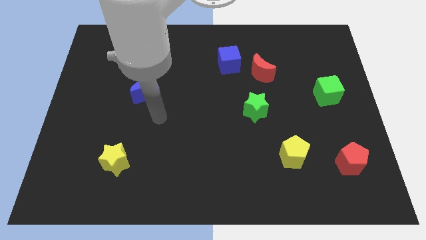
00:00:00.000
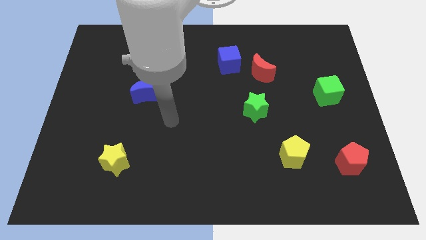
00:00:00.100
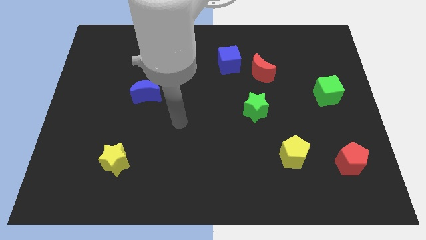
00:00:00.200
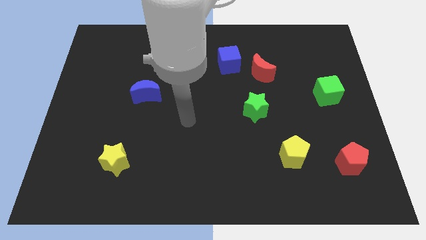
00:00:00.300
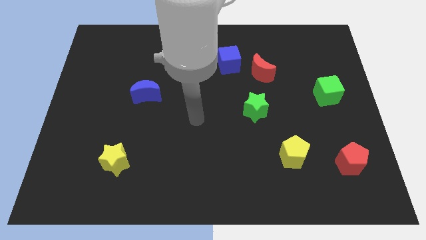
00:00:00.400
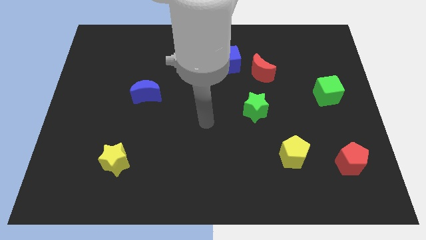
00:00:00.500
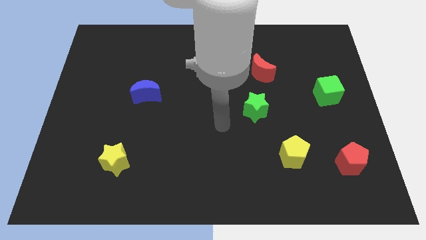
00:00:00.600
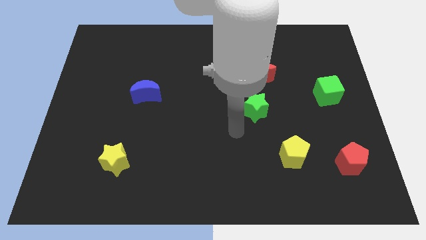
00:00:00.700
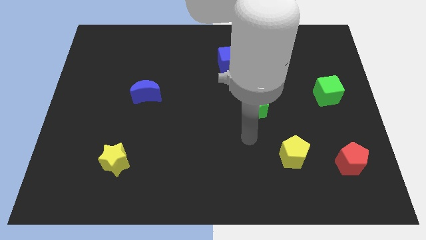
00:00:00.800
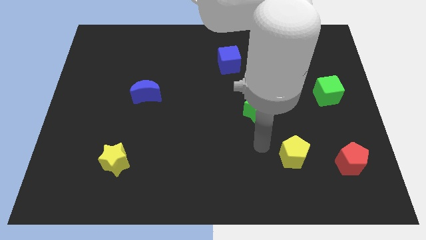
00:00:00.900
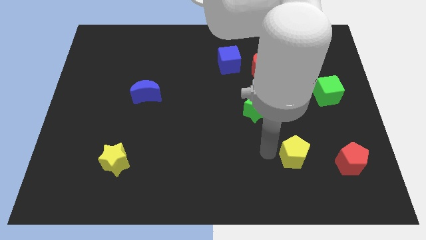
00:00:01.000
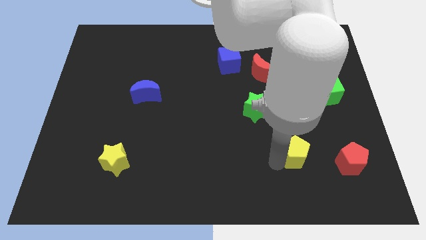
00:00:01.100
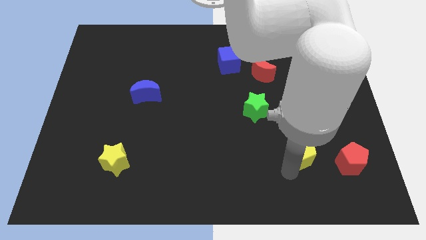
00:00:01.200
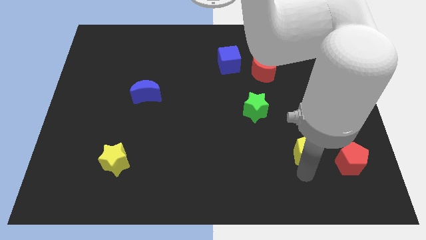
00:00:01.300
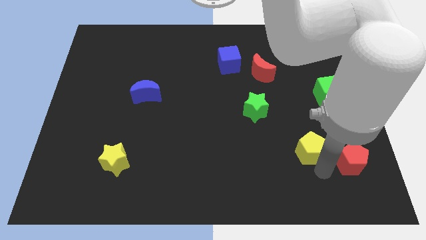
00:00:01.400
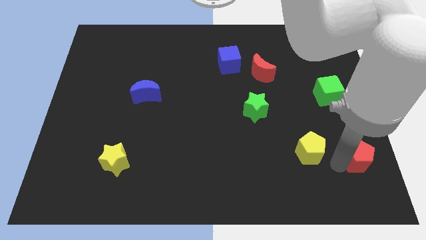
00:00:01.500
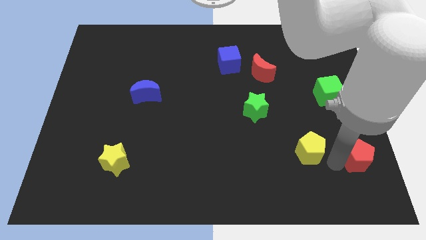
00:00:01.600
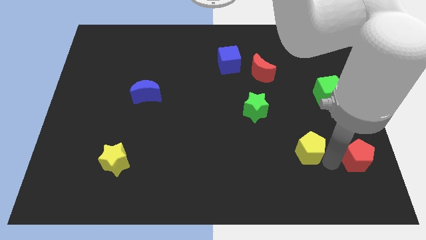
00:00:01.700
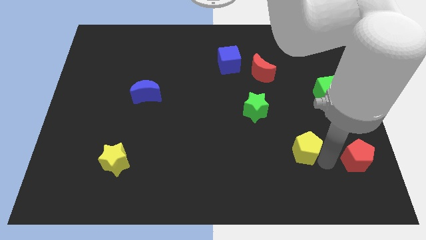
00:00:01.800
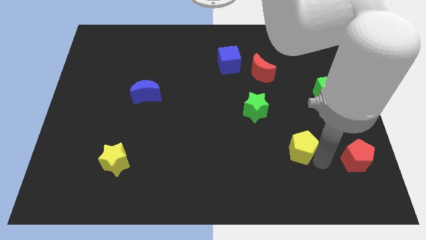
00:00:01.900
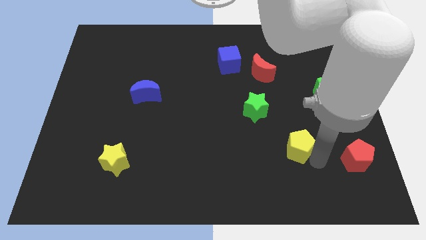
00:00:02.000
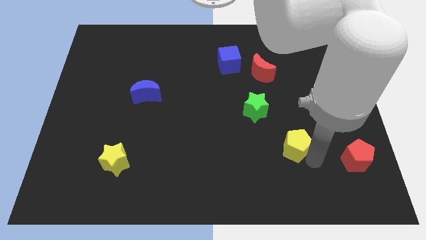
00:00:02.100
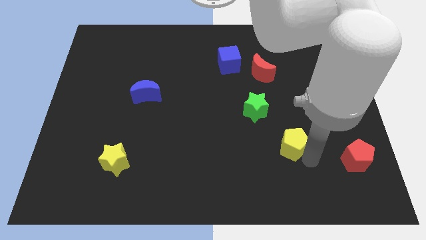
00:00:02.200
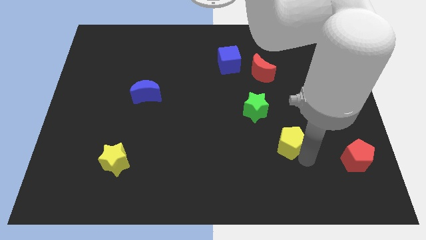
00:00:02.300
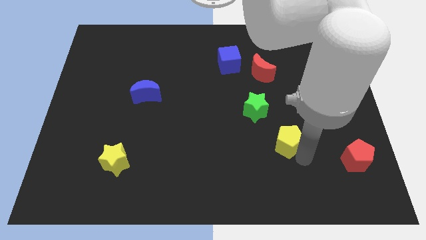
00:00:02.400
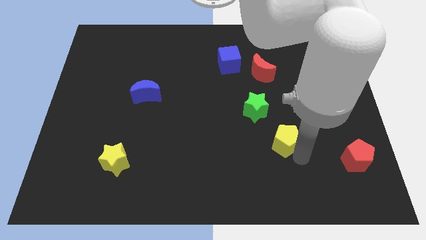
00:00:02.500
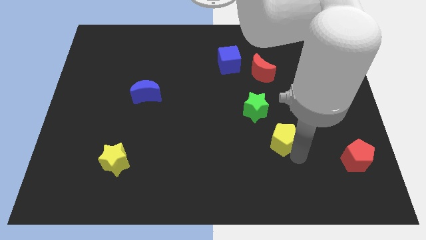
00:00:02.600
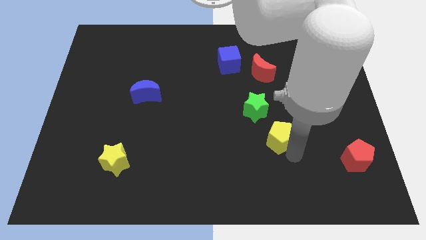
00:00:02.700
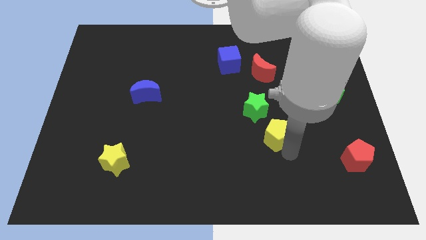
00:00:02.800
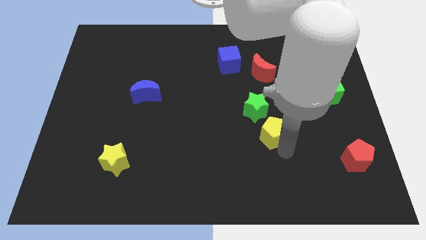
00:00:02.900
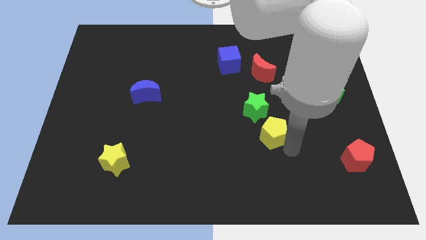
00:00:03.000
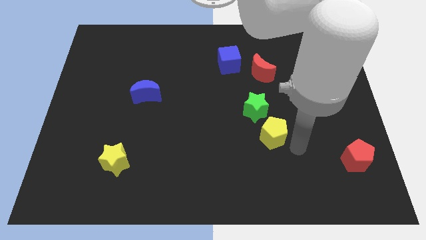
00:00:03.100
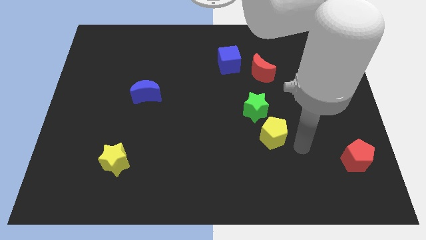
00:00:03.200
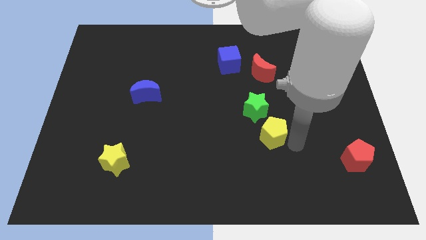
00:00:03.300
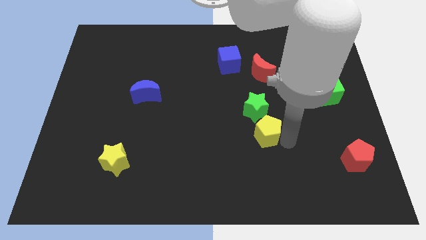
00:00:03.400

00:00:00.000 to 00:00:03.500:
move the yellow pentagon a little upwards and then left

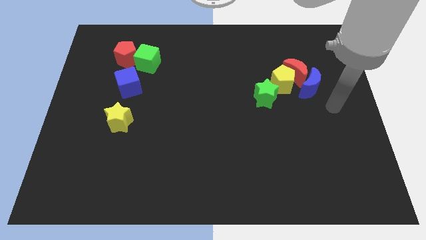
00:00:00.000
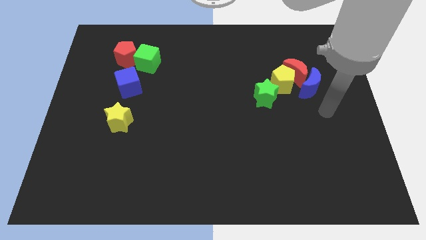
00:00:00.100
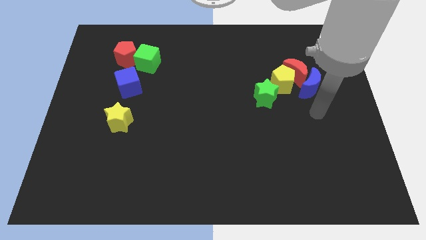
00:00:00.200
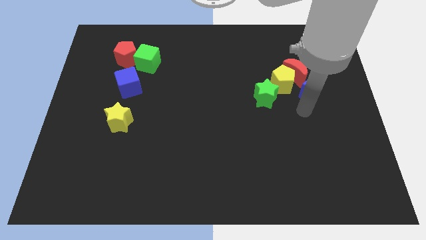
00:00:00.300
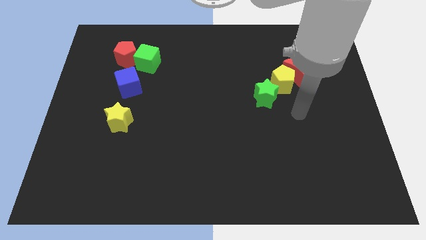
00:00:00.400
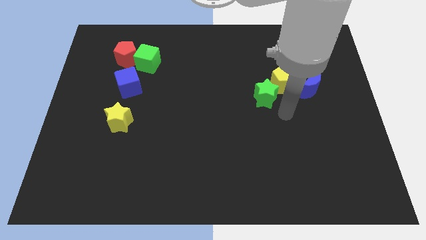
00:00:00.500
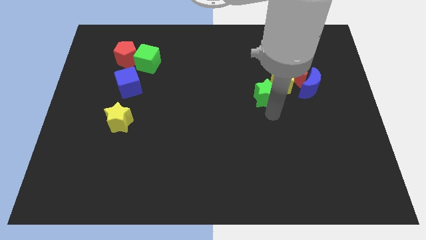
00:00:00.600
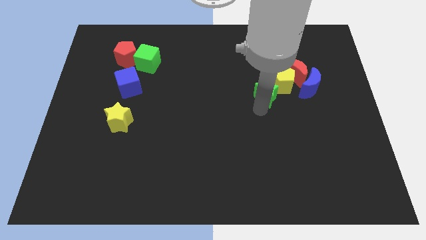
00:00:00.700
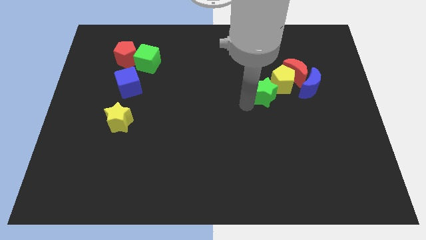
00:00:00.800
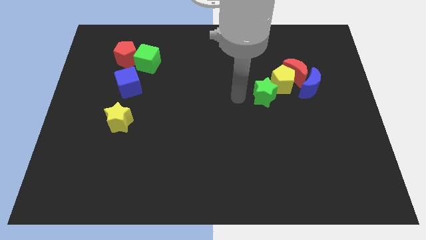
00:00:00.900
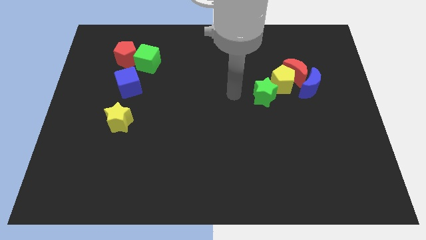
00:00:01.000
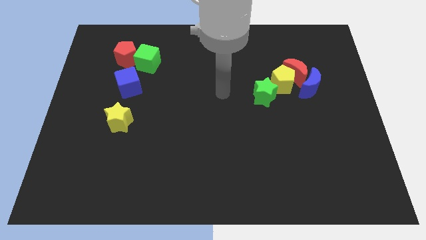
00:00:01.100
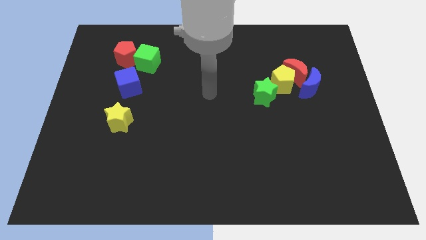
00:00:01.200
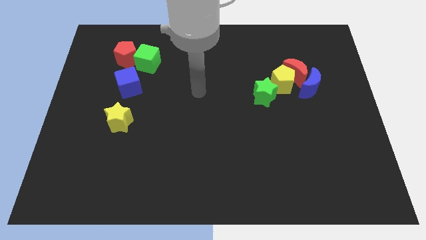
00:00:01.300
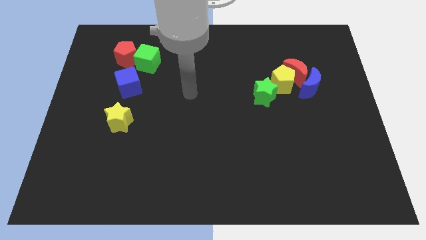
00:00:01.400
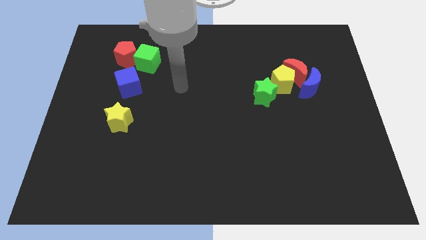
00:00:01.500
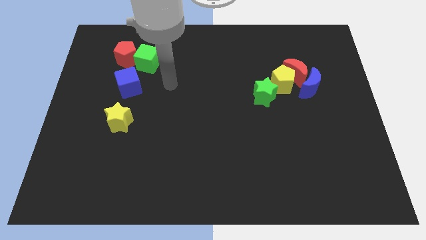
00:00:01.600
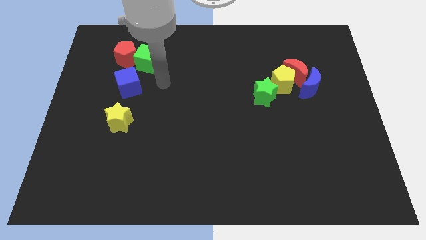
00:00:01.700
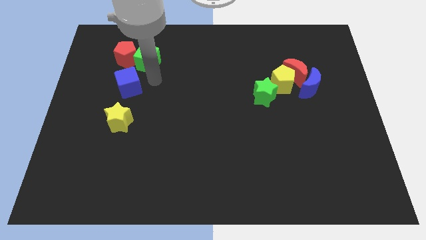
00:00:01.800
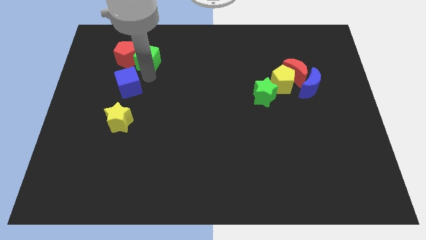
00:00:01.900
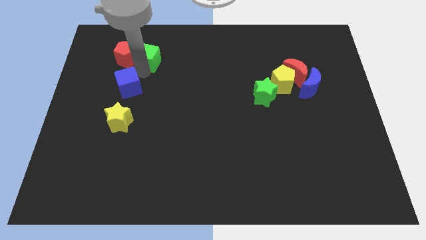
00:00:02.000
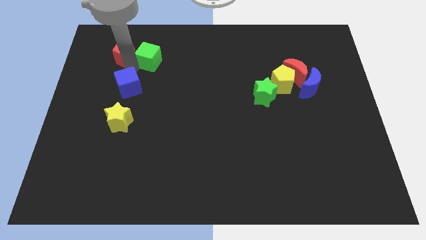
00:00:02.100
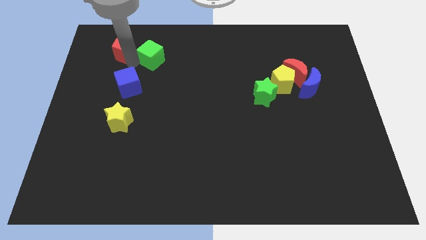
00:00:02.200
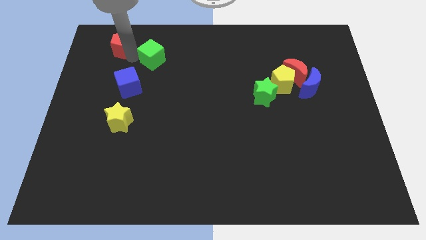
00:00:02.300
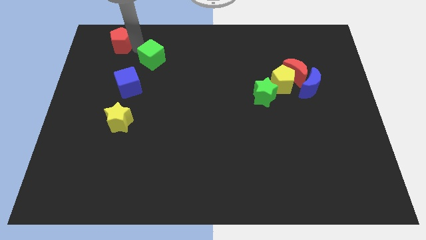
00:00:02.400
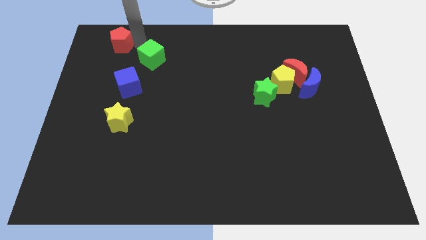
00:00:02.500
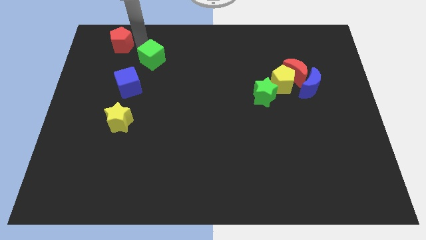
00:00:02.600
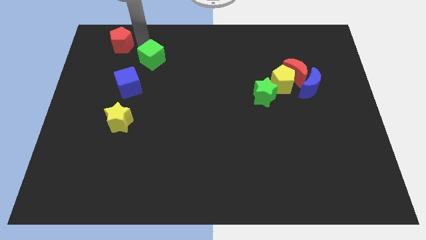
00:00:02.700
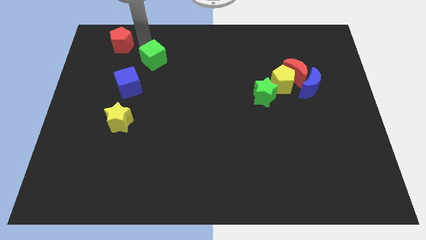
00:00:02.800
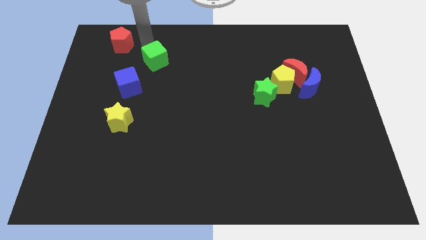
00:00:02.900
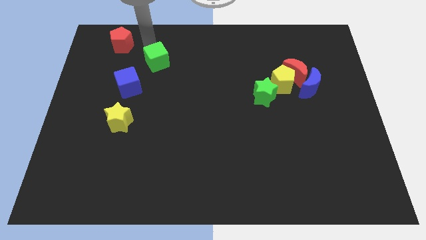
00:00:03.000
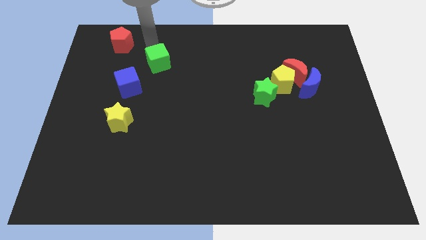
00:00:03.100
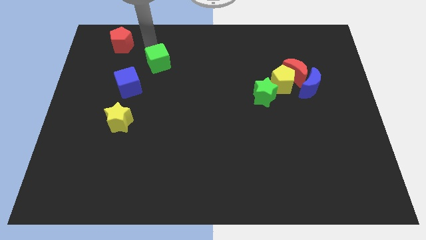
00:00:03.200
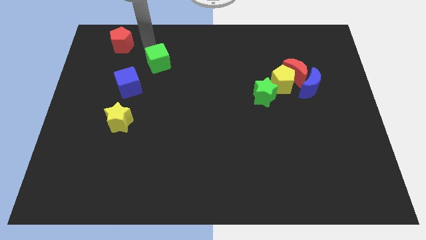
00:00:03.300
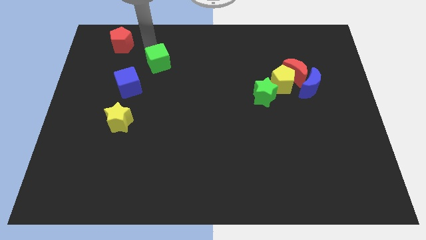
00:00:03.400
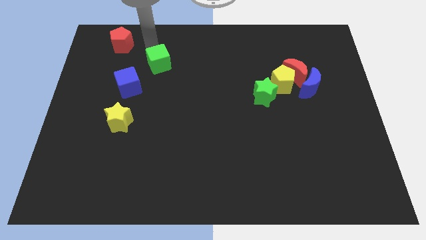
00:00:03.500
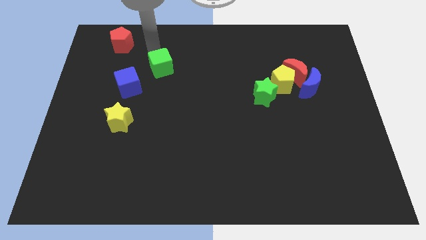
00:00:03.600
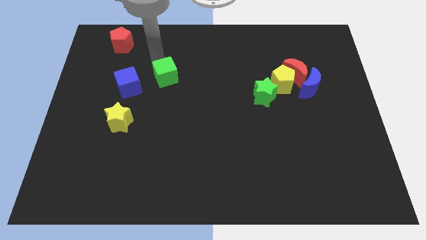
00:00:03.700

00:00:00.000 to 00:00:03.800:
slightly push the green cube down and then right

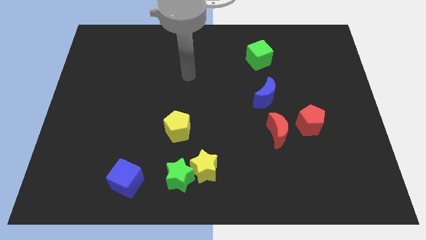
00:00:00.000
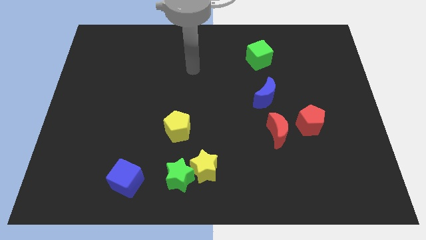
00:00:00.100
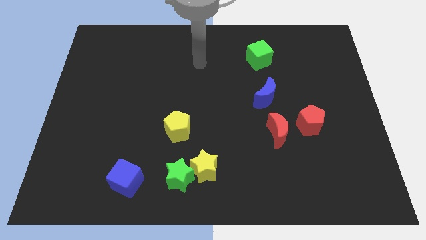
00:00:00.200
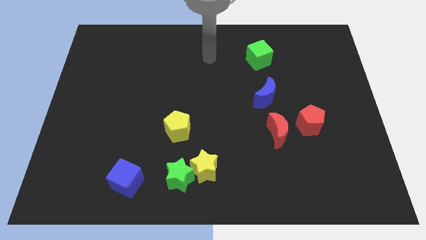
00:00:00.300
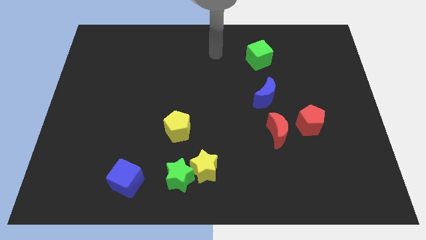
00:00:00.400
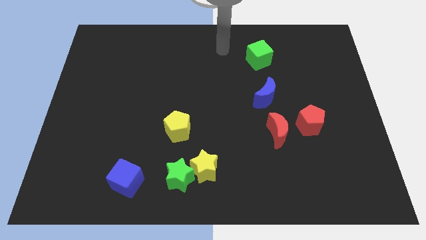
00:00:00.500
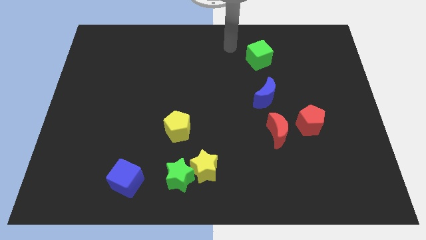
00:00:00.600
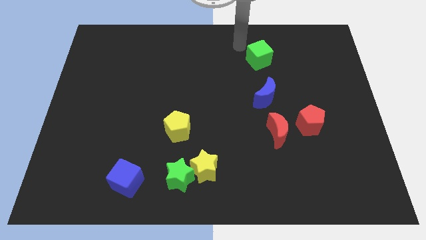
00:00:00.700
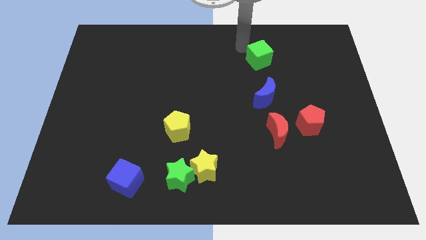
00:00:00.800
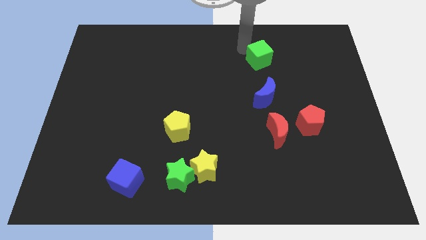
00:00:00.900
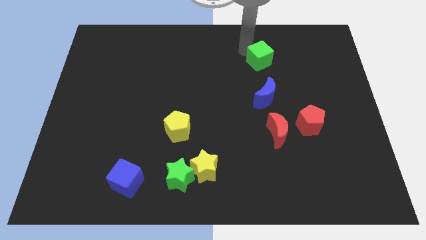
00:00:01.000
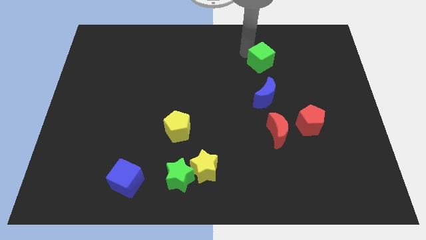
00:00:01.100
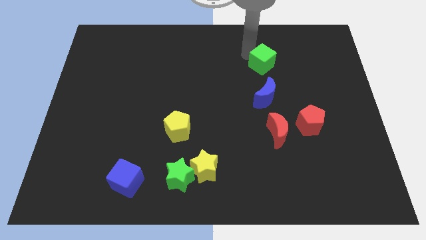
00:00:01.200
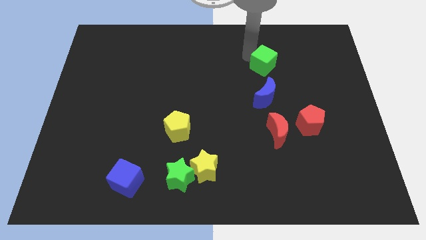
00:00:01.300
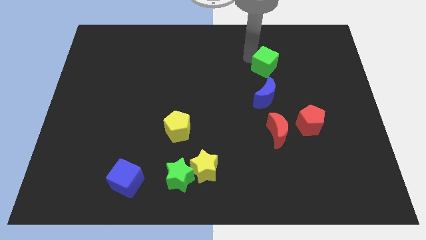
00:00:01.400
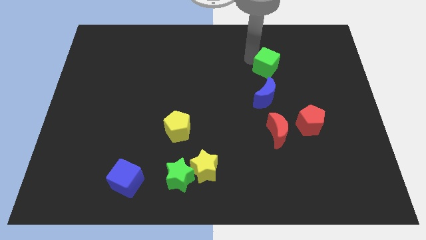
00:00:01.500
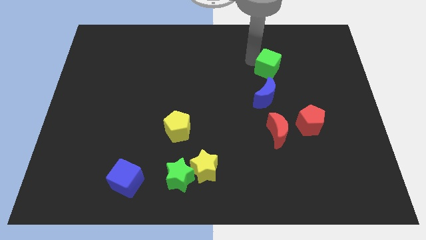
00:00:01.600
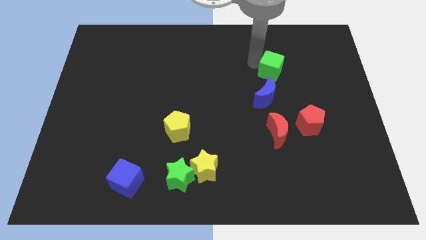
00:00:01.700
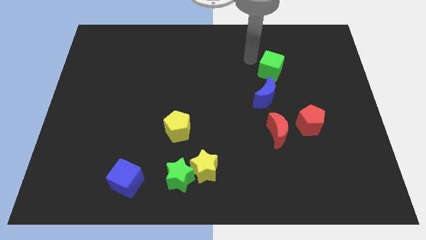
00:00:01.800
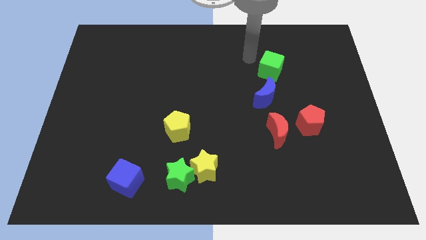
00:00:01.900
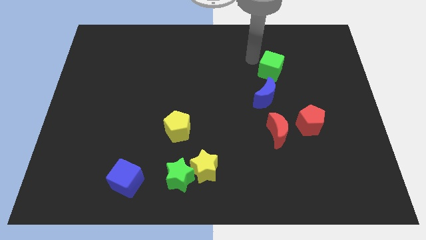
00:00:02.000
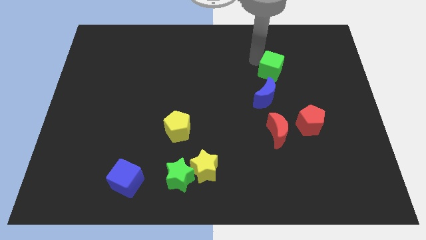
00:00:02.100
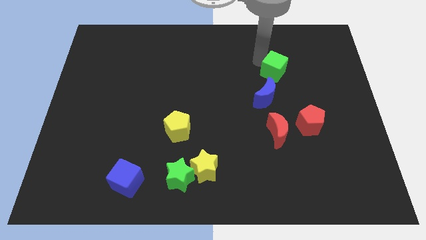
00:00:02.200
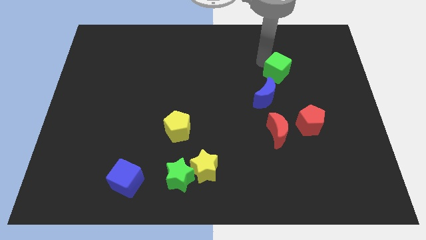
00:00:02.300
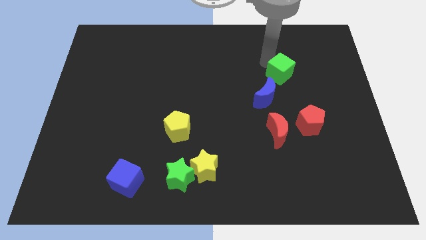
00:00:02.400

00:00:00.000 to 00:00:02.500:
slide the green cube slightly down and to the right
